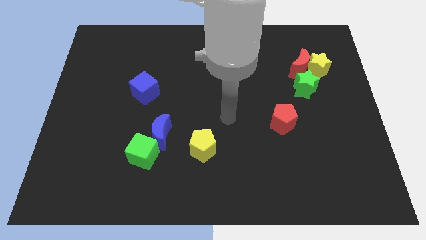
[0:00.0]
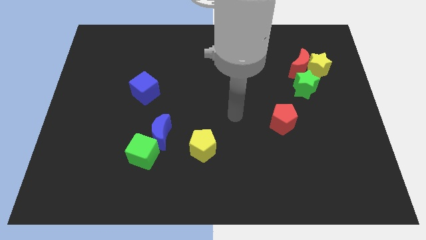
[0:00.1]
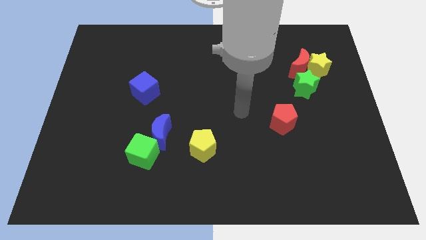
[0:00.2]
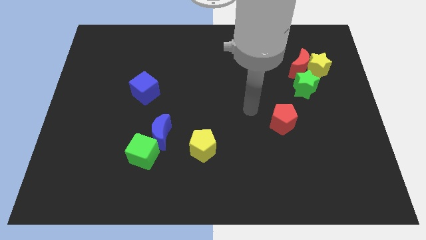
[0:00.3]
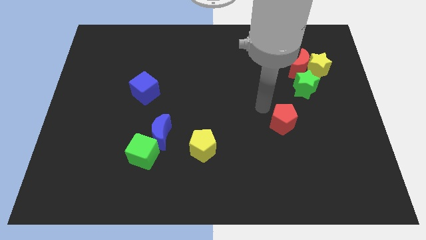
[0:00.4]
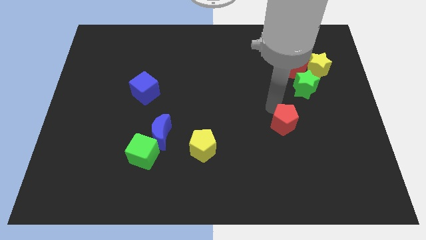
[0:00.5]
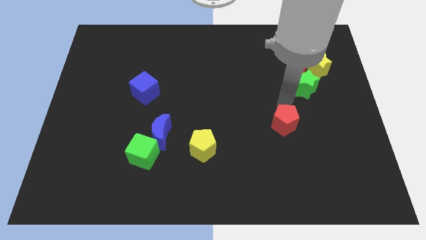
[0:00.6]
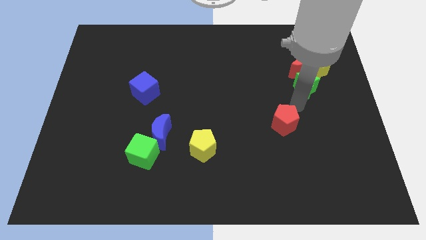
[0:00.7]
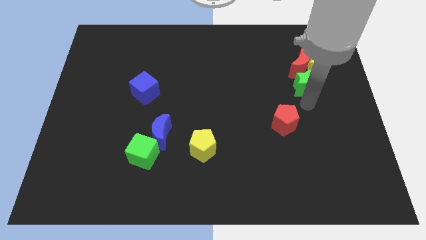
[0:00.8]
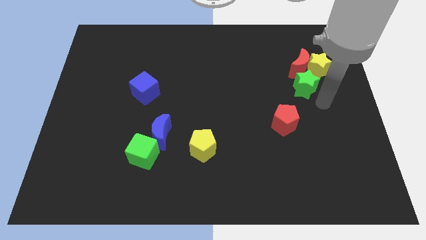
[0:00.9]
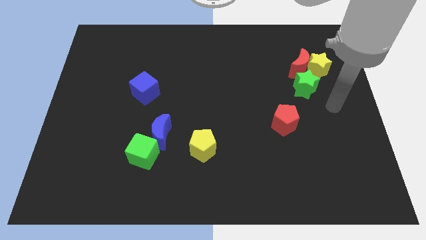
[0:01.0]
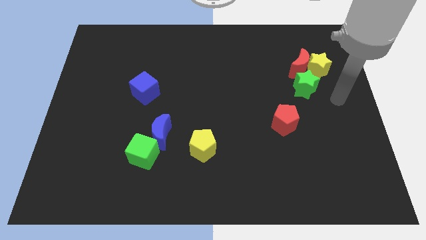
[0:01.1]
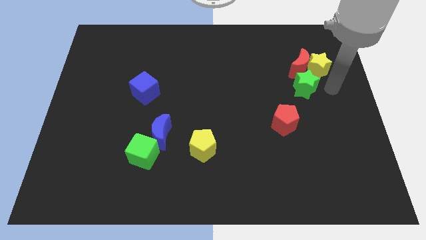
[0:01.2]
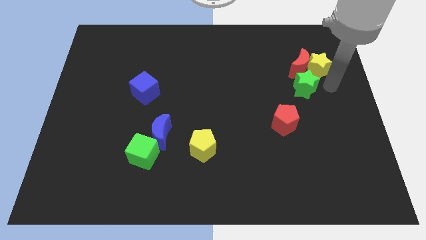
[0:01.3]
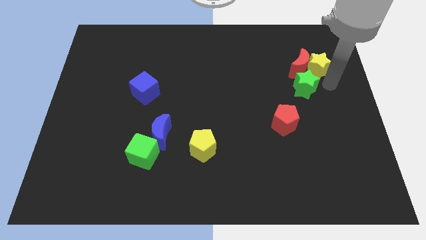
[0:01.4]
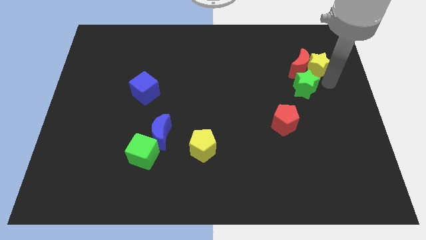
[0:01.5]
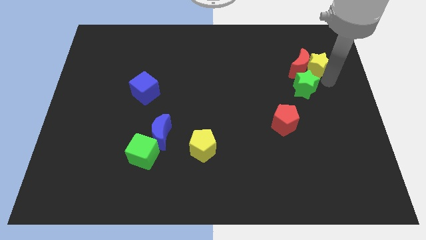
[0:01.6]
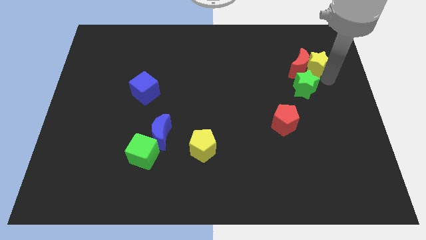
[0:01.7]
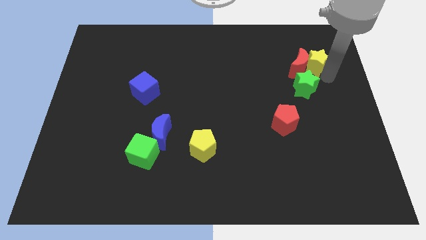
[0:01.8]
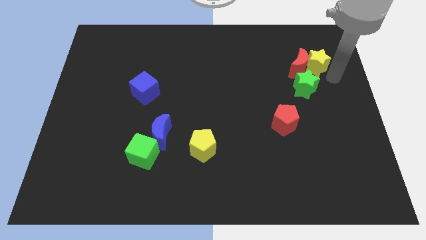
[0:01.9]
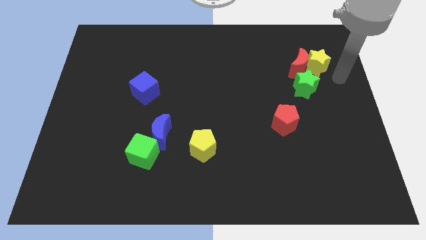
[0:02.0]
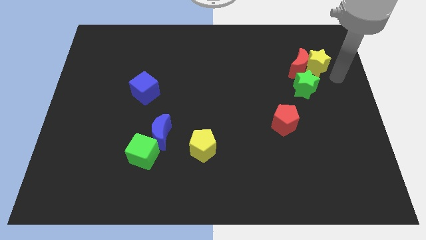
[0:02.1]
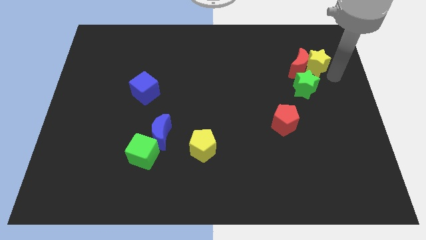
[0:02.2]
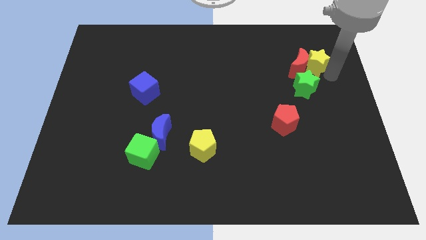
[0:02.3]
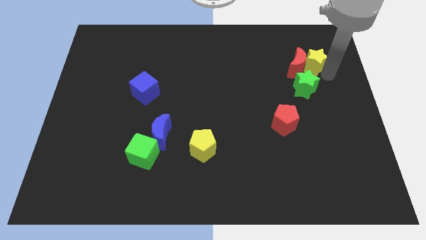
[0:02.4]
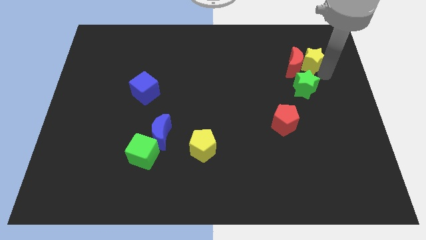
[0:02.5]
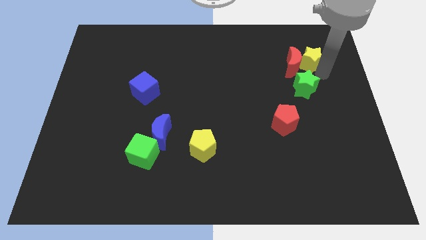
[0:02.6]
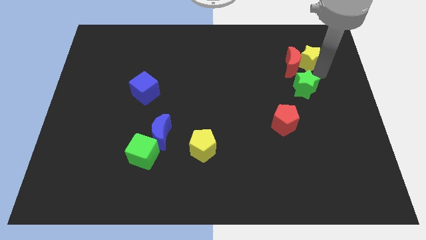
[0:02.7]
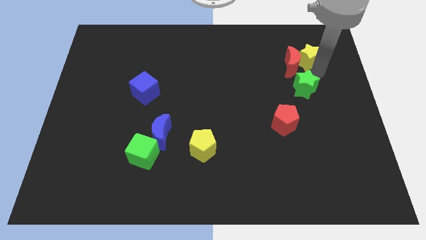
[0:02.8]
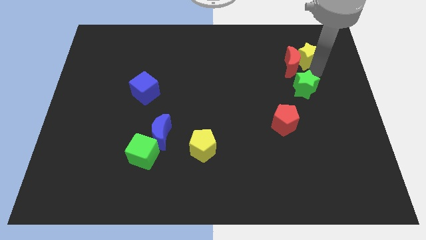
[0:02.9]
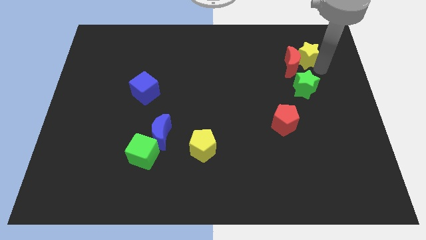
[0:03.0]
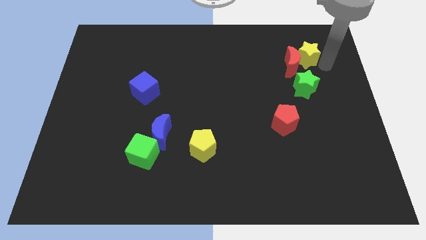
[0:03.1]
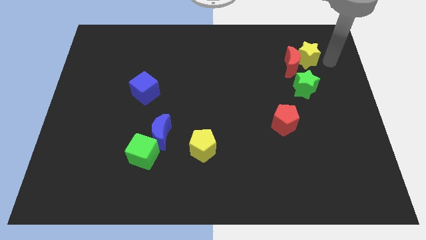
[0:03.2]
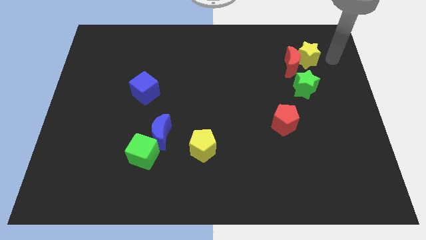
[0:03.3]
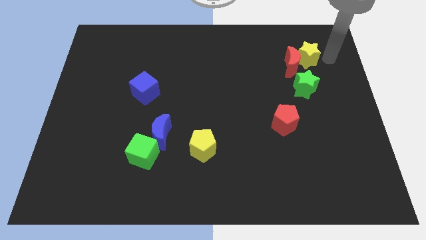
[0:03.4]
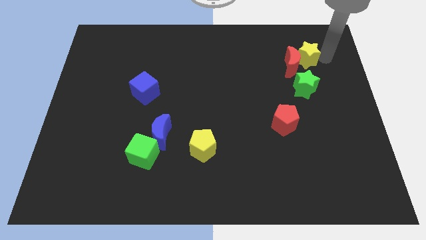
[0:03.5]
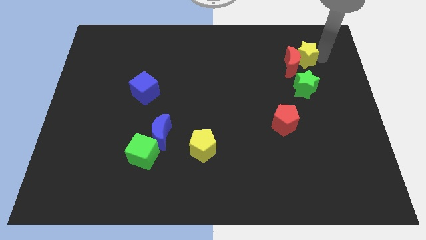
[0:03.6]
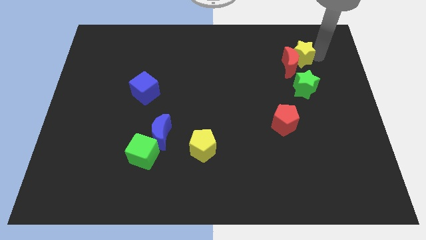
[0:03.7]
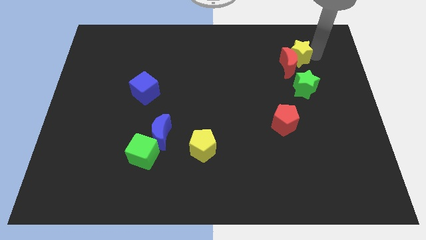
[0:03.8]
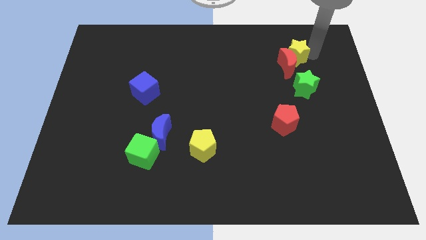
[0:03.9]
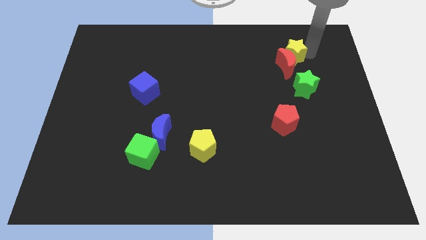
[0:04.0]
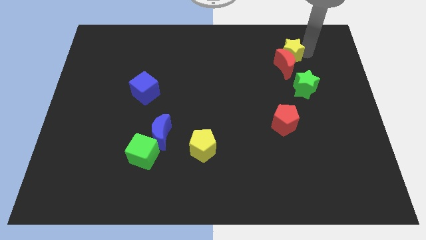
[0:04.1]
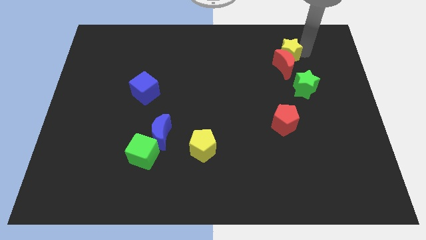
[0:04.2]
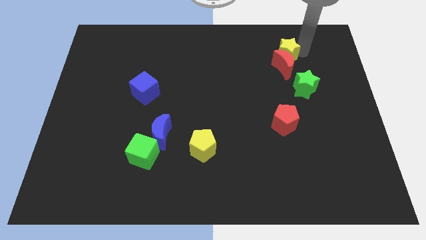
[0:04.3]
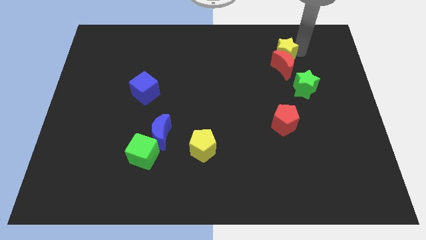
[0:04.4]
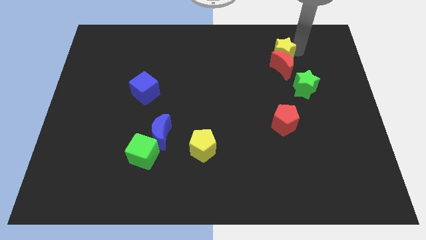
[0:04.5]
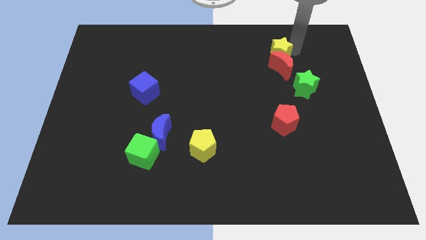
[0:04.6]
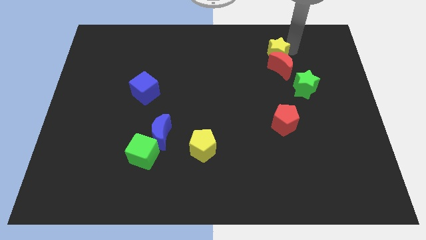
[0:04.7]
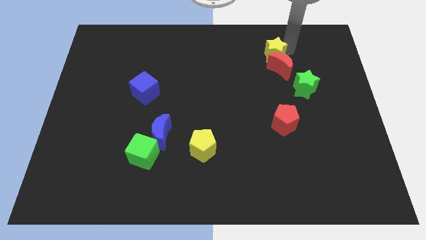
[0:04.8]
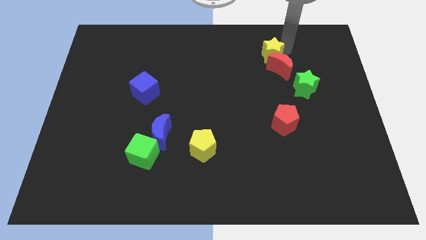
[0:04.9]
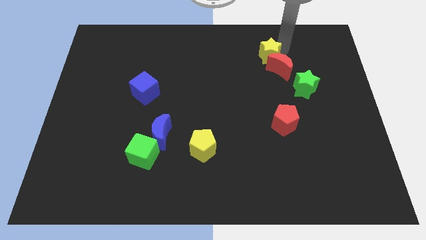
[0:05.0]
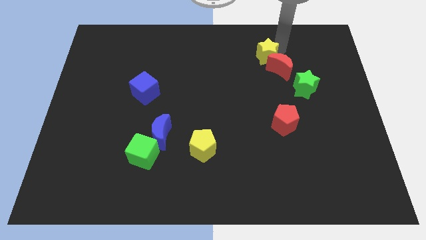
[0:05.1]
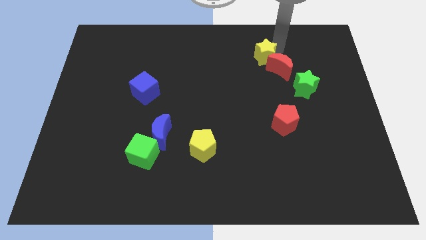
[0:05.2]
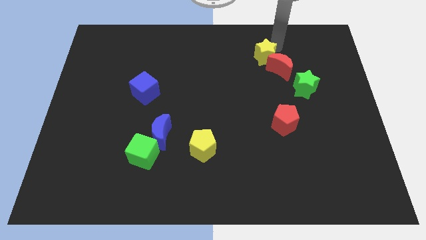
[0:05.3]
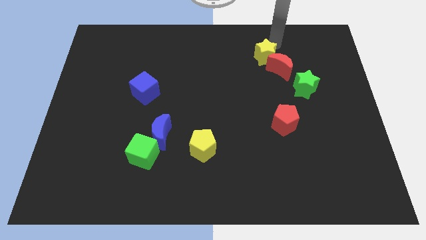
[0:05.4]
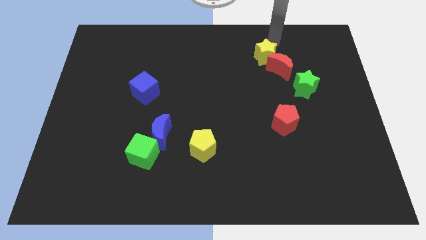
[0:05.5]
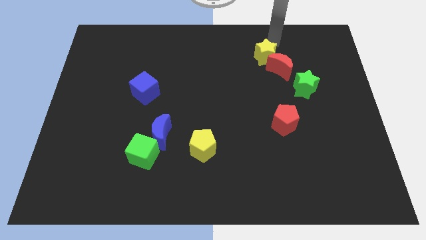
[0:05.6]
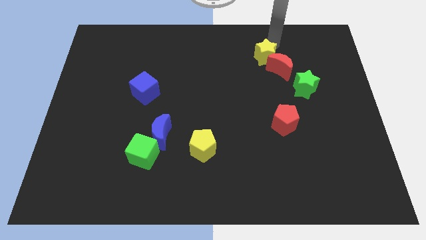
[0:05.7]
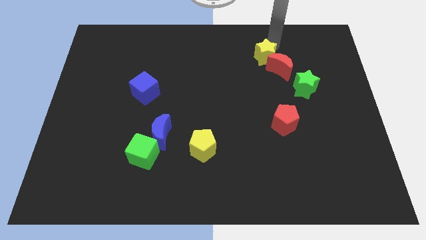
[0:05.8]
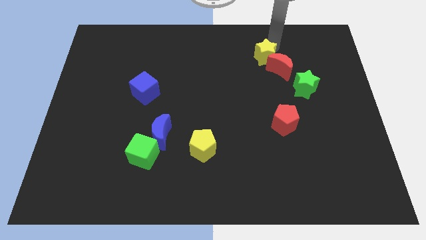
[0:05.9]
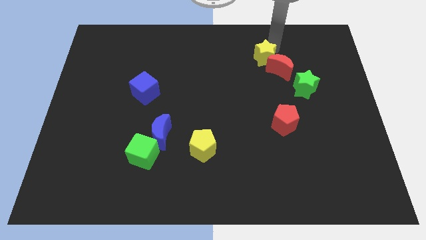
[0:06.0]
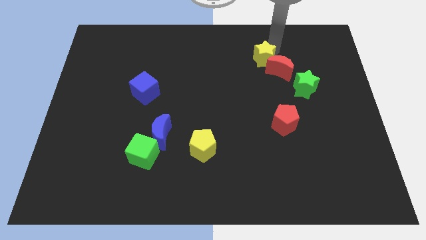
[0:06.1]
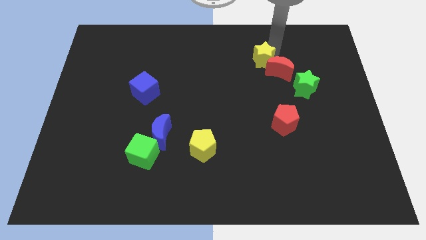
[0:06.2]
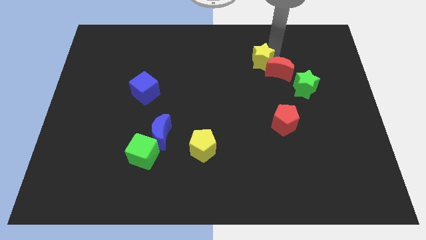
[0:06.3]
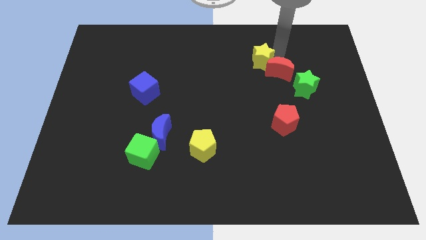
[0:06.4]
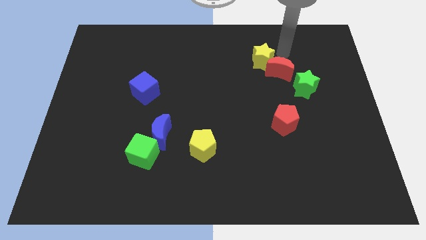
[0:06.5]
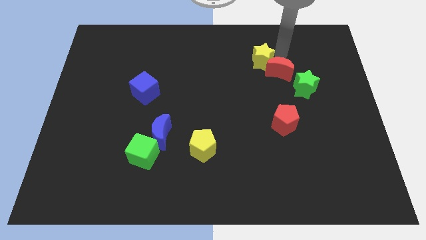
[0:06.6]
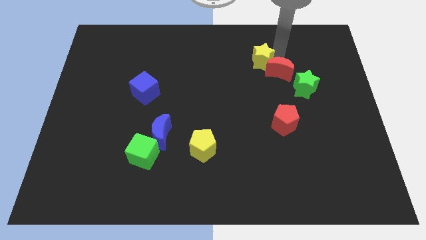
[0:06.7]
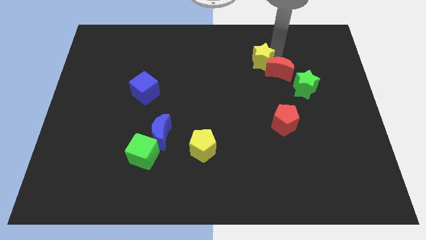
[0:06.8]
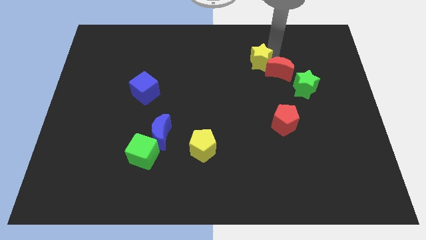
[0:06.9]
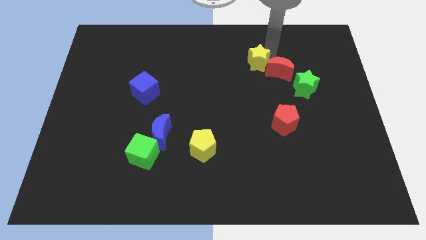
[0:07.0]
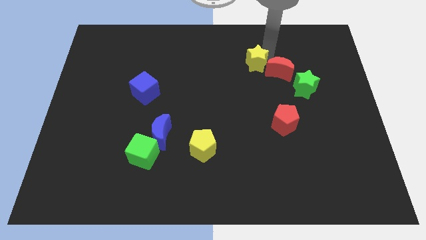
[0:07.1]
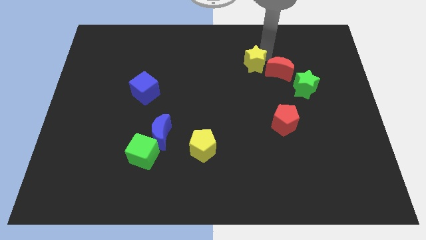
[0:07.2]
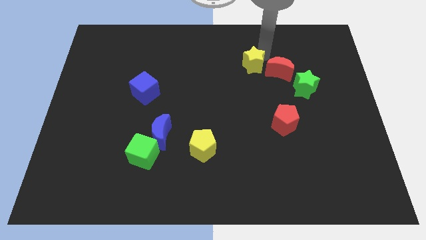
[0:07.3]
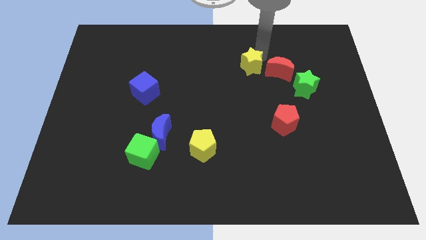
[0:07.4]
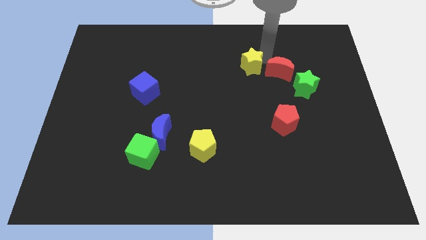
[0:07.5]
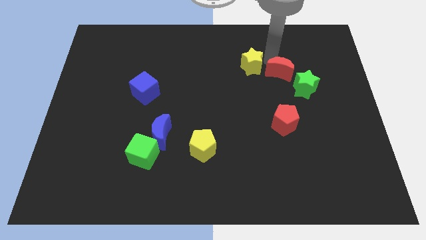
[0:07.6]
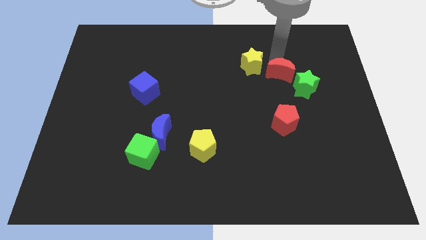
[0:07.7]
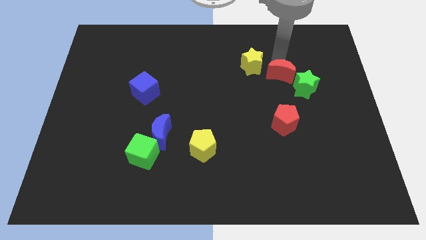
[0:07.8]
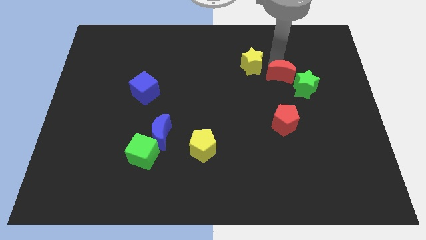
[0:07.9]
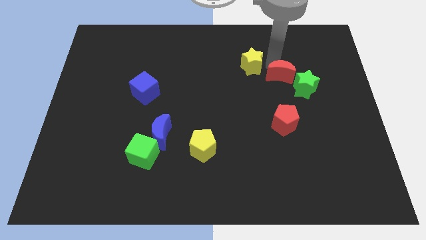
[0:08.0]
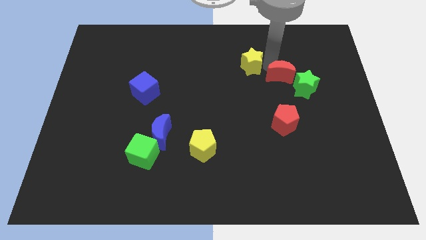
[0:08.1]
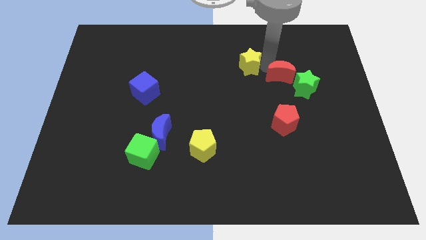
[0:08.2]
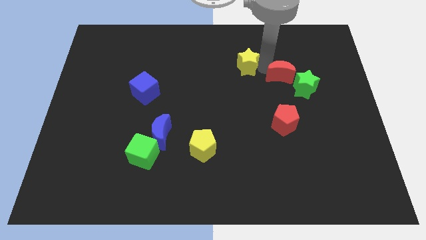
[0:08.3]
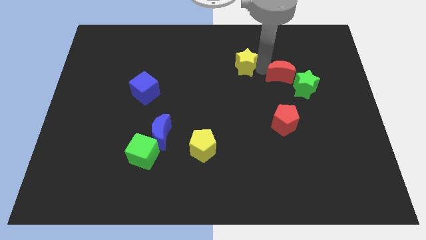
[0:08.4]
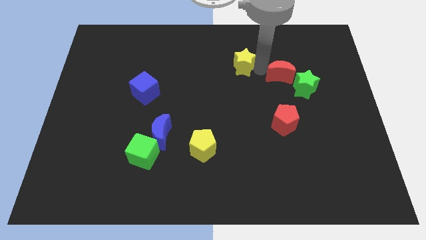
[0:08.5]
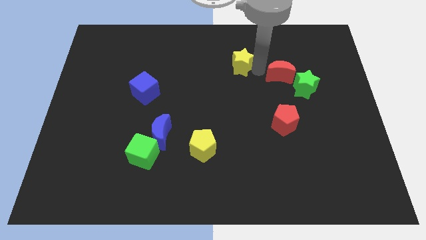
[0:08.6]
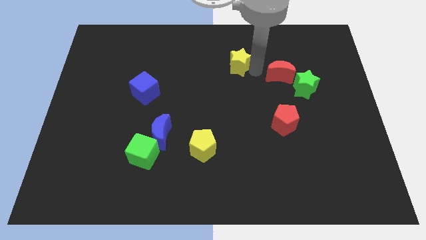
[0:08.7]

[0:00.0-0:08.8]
move the yellow star left
